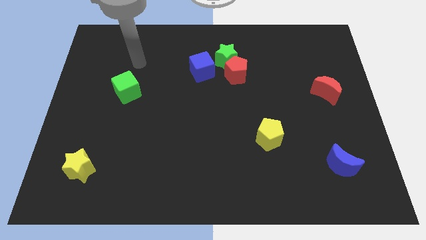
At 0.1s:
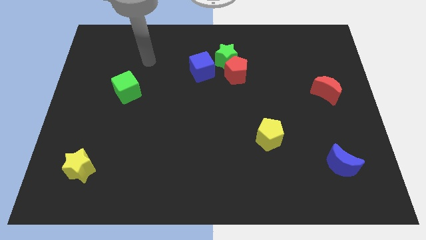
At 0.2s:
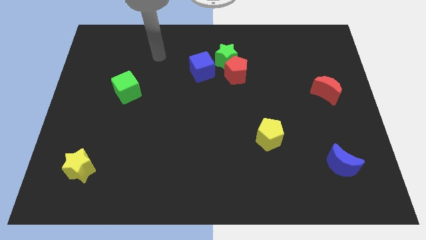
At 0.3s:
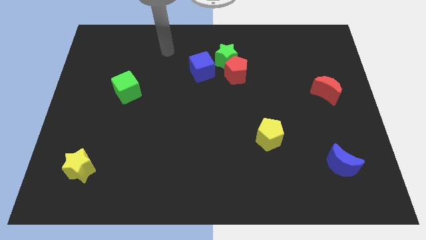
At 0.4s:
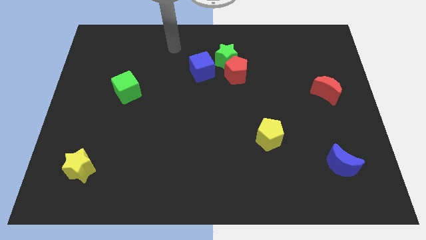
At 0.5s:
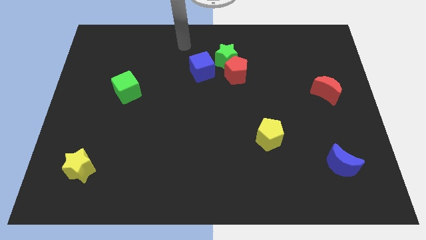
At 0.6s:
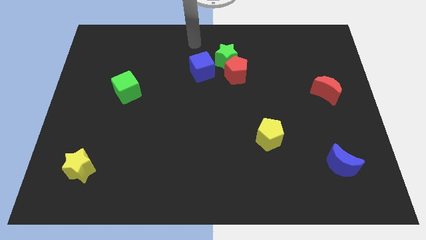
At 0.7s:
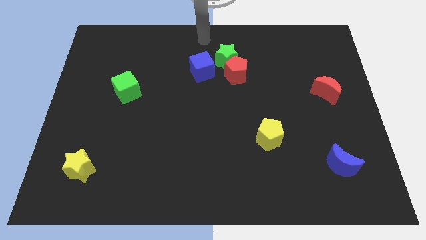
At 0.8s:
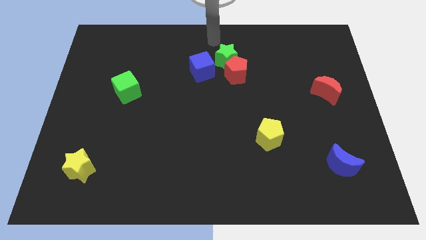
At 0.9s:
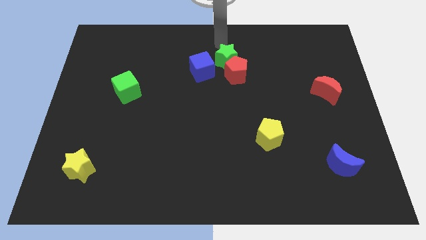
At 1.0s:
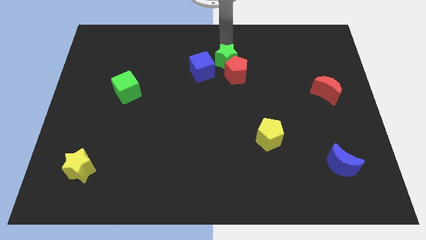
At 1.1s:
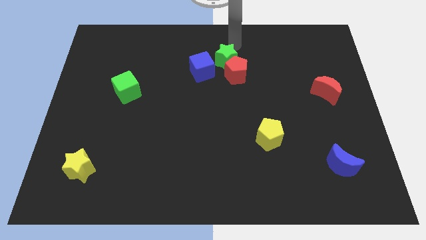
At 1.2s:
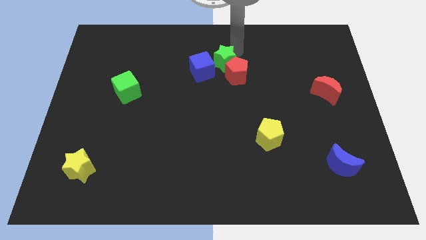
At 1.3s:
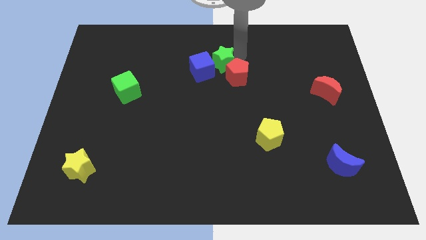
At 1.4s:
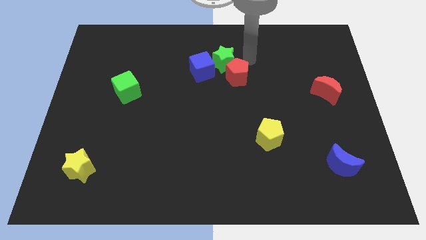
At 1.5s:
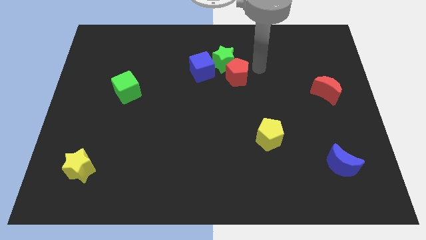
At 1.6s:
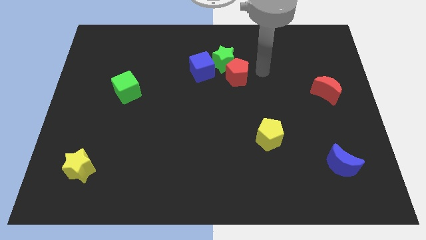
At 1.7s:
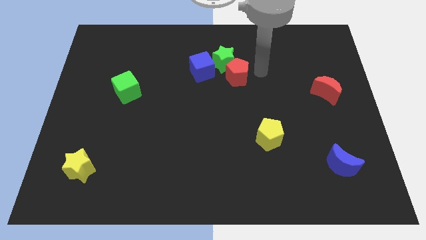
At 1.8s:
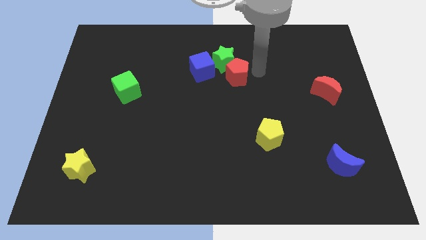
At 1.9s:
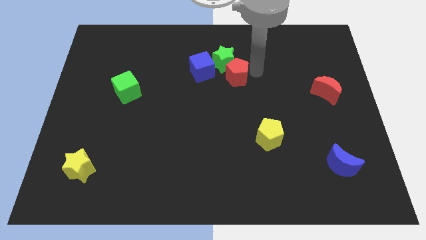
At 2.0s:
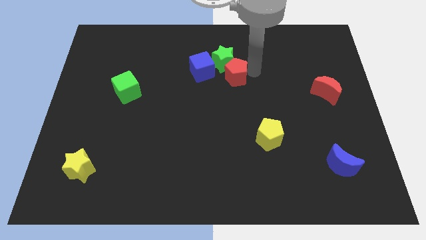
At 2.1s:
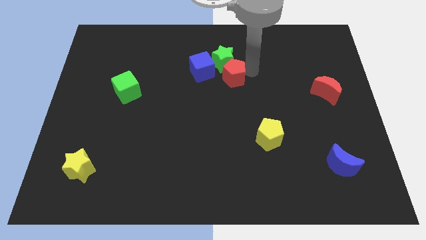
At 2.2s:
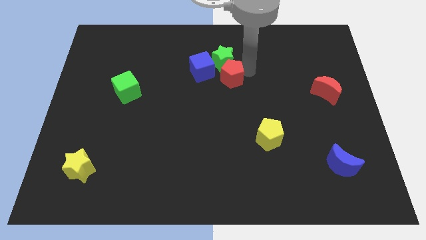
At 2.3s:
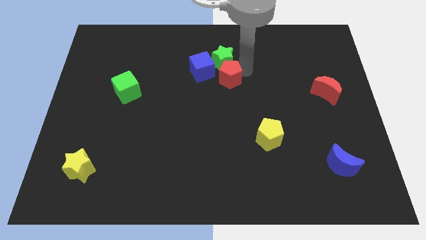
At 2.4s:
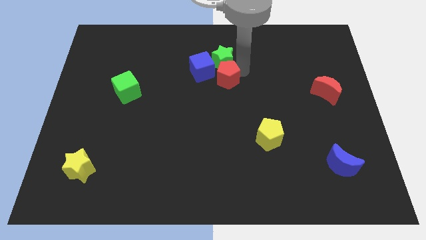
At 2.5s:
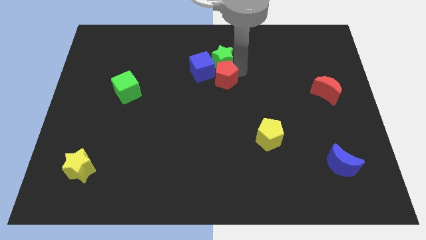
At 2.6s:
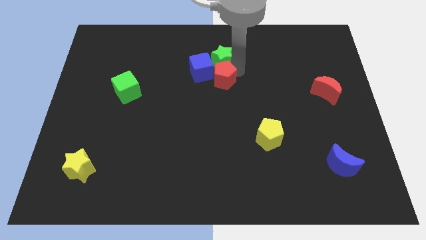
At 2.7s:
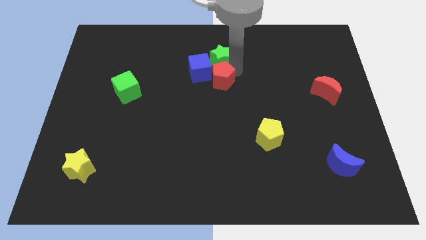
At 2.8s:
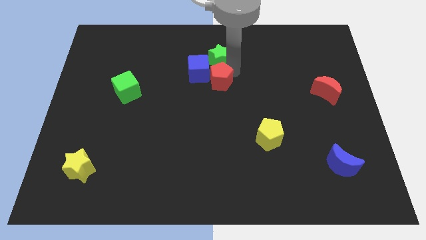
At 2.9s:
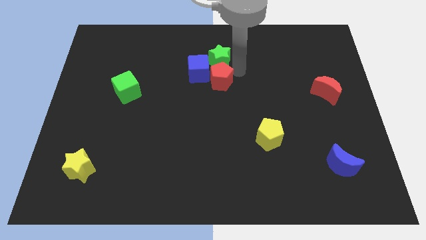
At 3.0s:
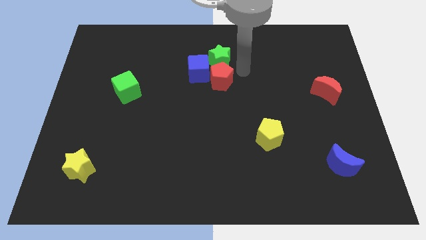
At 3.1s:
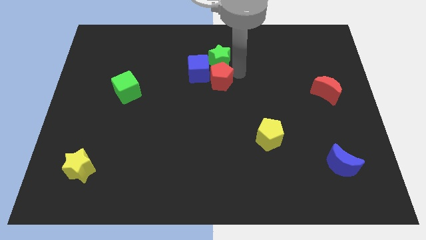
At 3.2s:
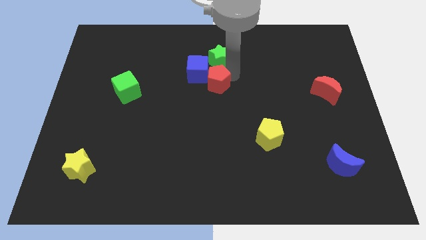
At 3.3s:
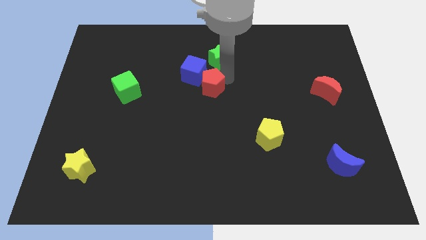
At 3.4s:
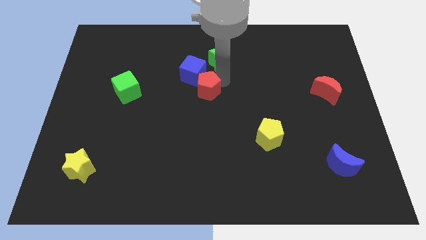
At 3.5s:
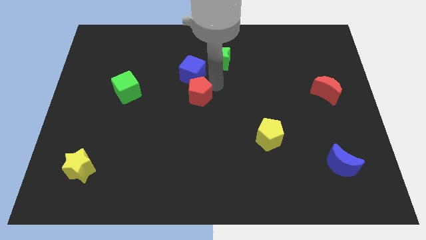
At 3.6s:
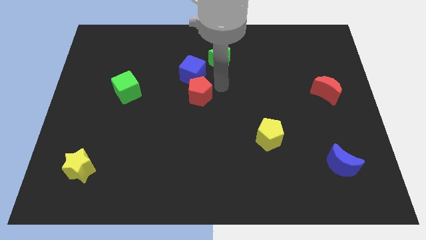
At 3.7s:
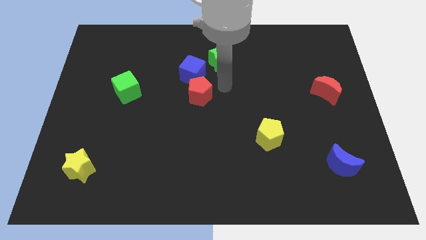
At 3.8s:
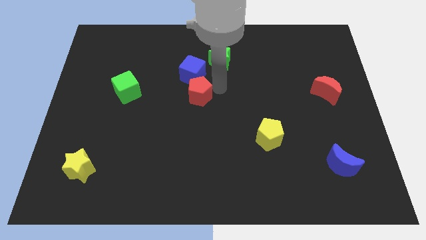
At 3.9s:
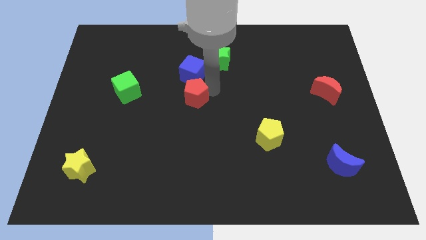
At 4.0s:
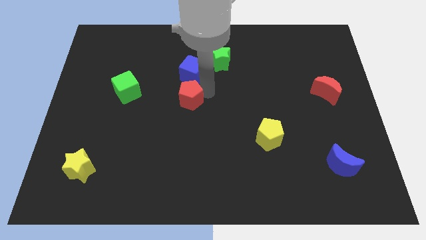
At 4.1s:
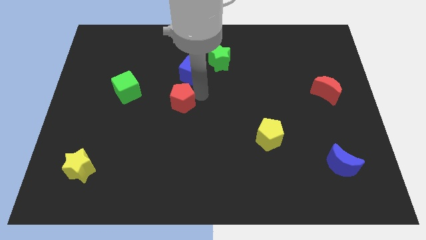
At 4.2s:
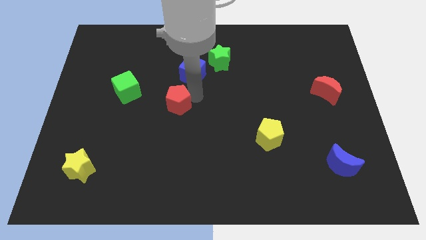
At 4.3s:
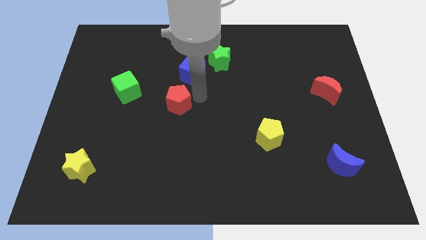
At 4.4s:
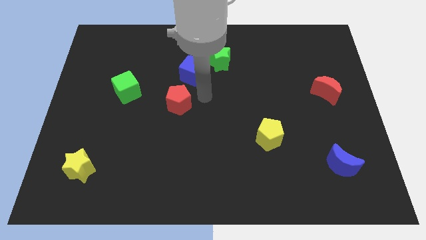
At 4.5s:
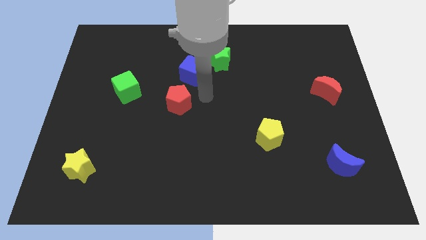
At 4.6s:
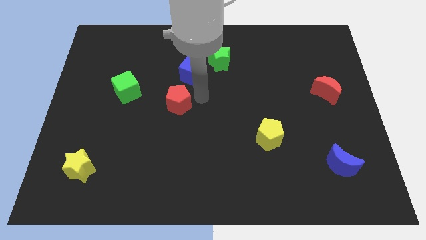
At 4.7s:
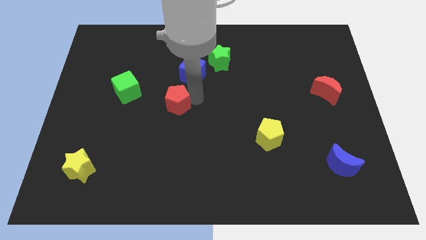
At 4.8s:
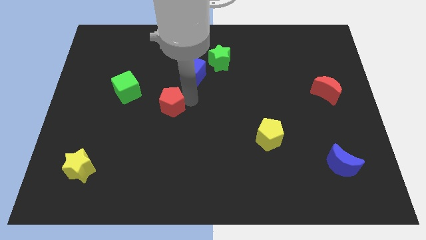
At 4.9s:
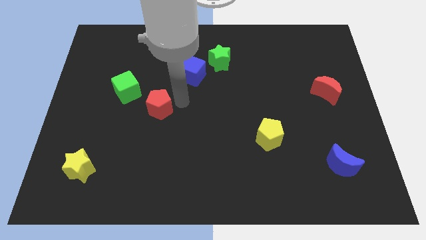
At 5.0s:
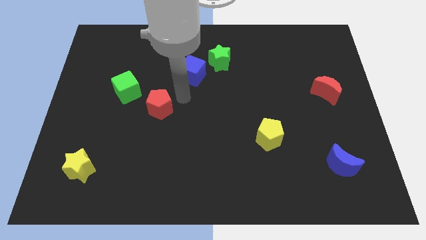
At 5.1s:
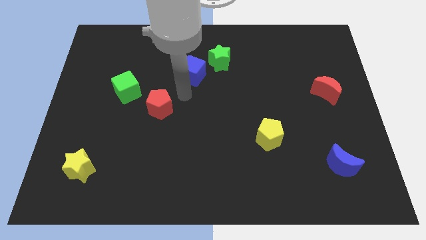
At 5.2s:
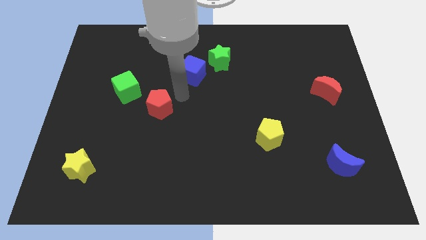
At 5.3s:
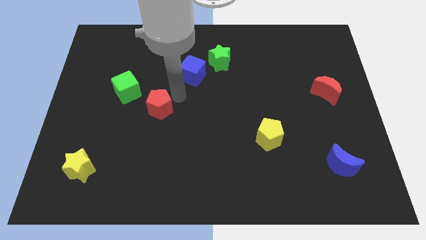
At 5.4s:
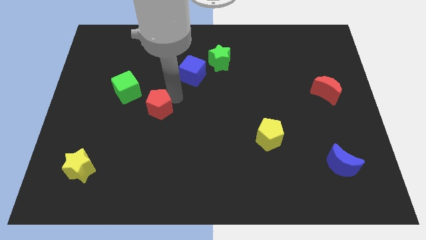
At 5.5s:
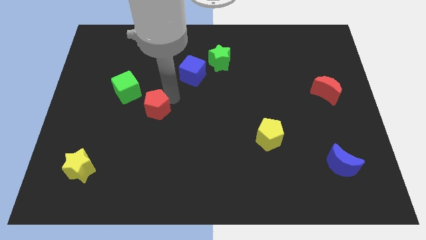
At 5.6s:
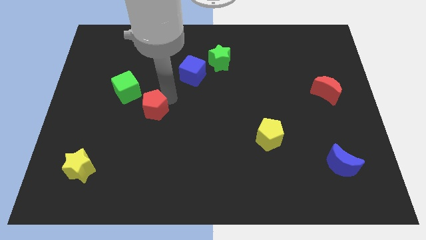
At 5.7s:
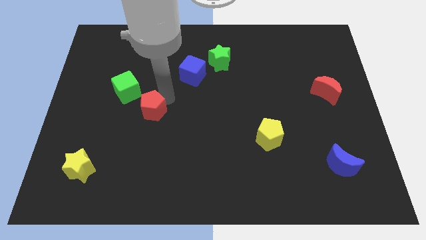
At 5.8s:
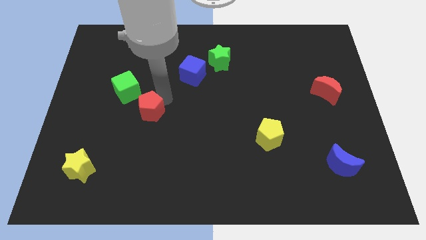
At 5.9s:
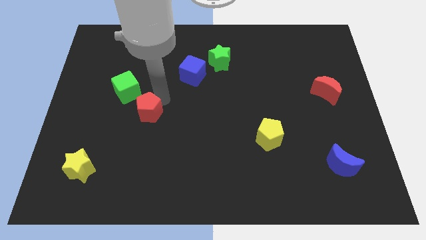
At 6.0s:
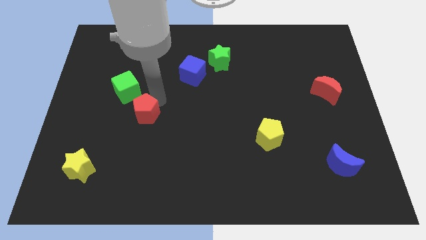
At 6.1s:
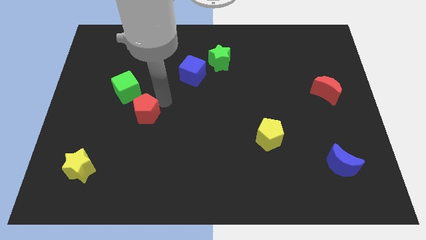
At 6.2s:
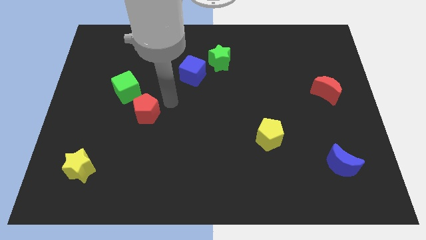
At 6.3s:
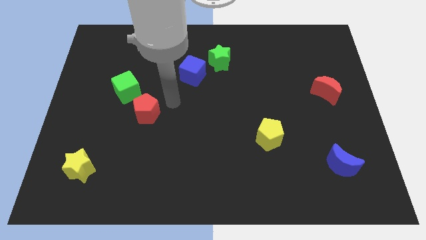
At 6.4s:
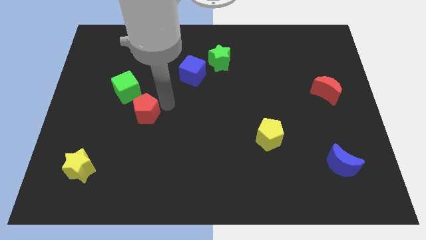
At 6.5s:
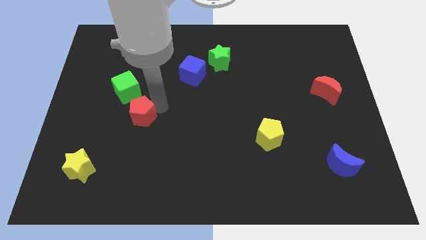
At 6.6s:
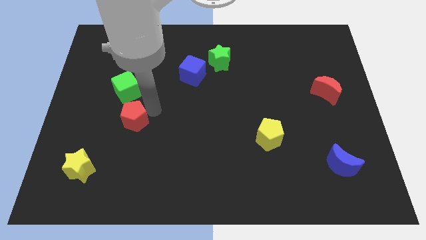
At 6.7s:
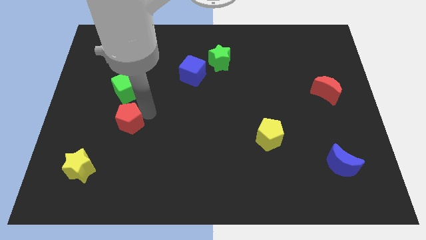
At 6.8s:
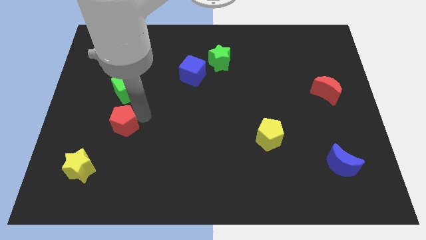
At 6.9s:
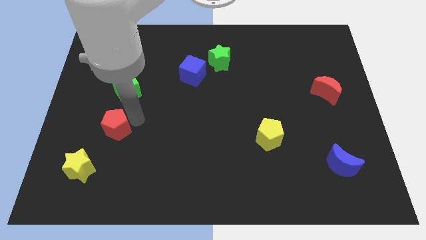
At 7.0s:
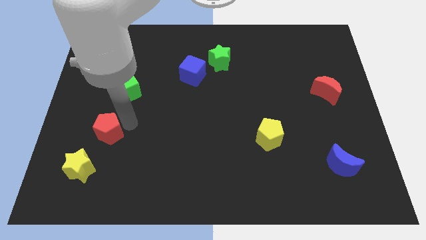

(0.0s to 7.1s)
push the red pentagon above the yellow star

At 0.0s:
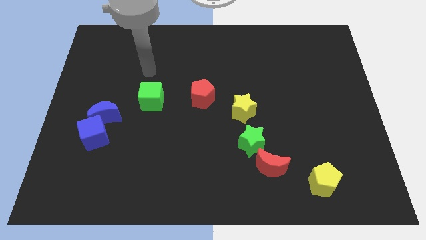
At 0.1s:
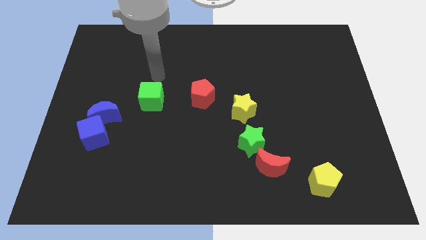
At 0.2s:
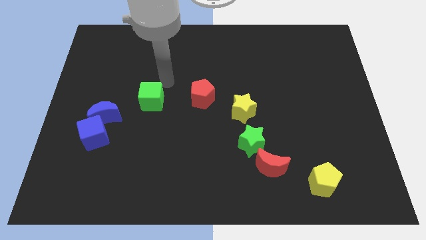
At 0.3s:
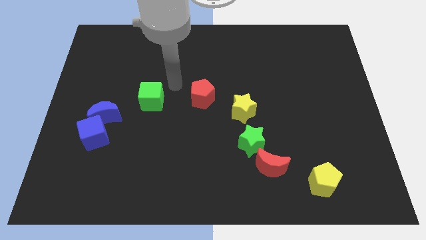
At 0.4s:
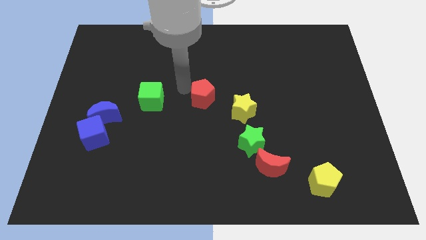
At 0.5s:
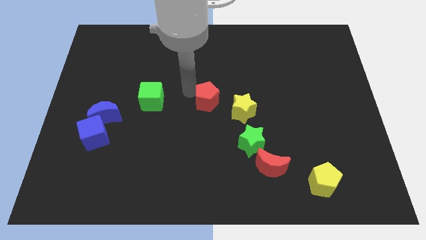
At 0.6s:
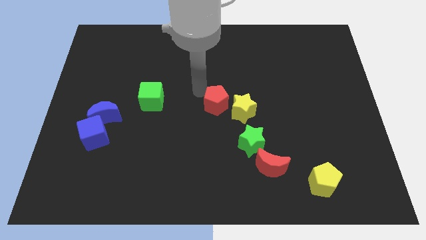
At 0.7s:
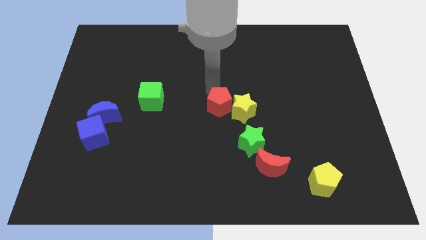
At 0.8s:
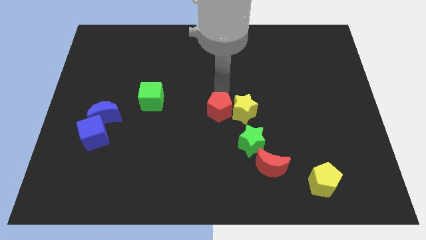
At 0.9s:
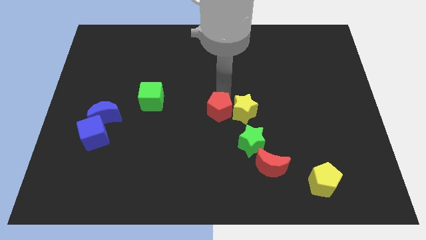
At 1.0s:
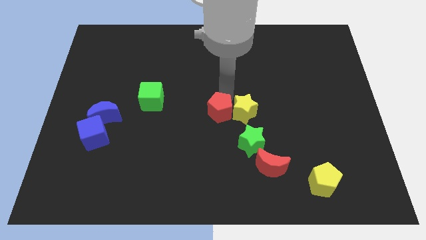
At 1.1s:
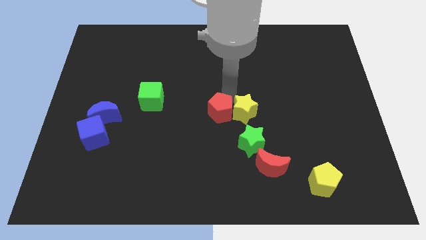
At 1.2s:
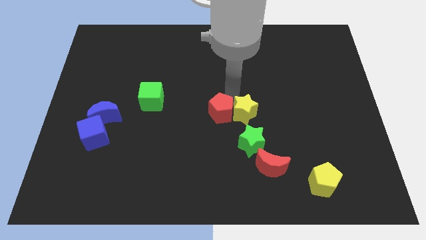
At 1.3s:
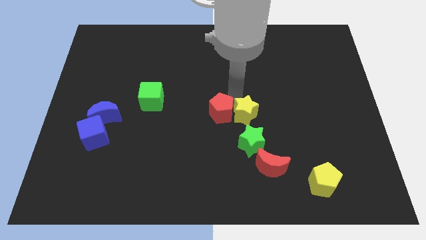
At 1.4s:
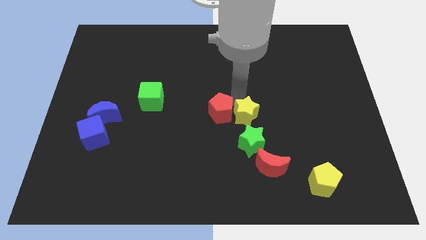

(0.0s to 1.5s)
slide the yellow star above the red moon
